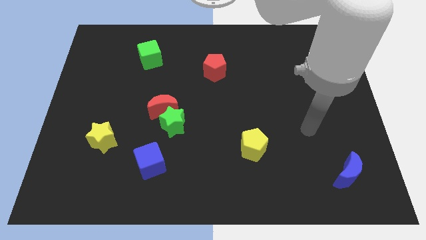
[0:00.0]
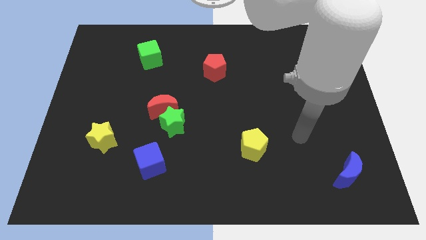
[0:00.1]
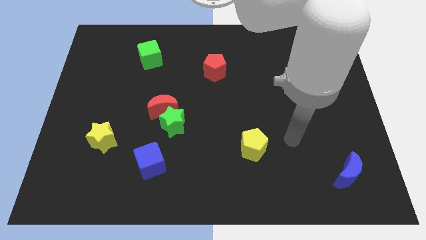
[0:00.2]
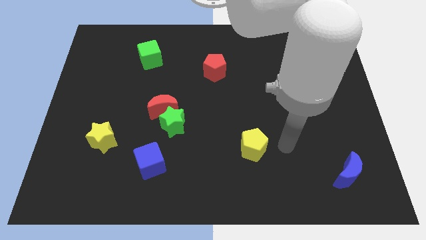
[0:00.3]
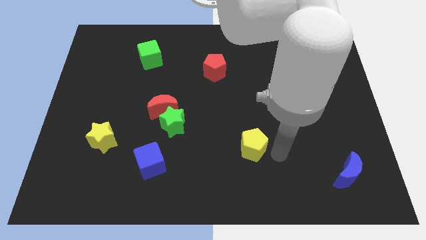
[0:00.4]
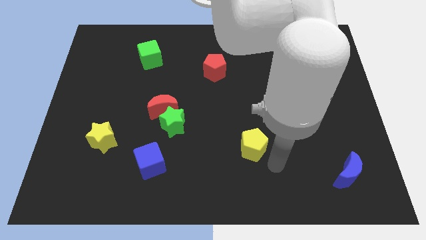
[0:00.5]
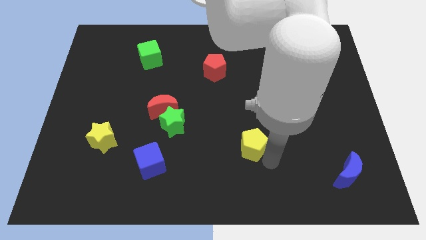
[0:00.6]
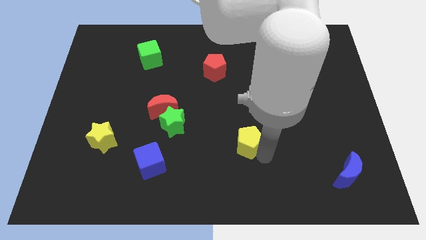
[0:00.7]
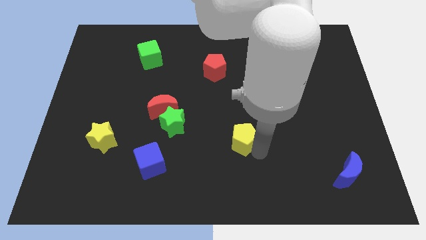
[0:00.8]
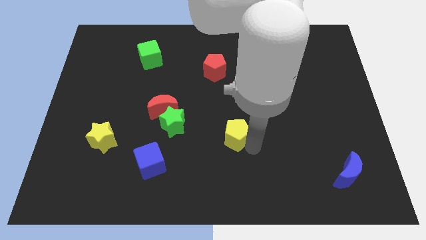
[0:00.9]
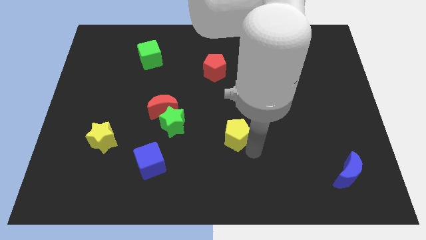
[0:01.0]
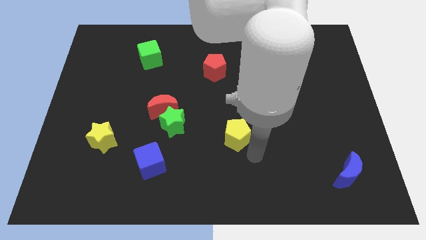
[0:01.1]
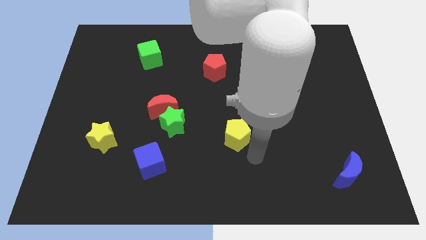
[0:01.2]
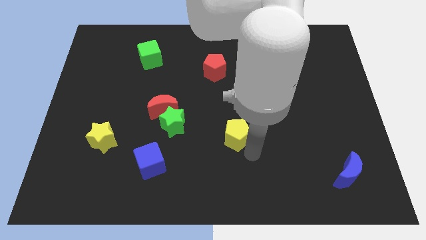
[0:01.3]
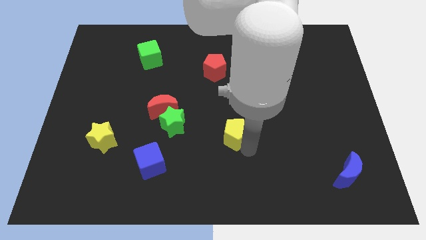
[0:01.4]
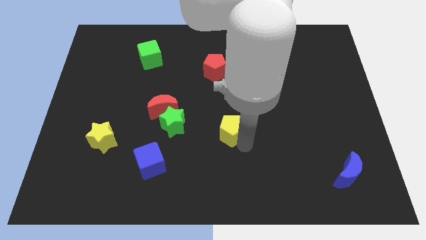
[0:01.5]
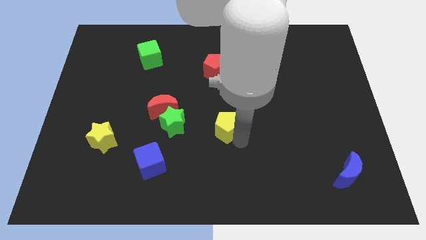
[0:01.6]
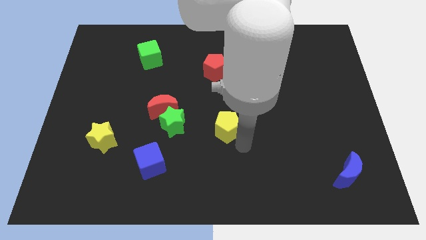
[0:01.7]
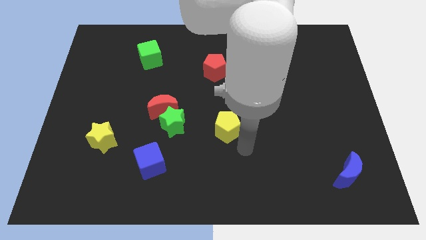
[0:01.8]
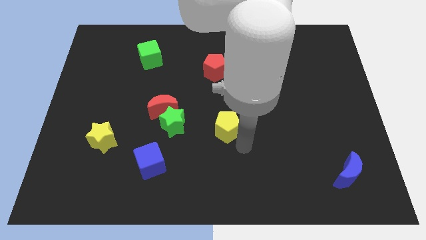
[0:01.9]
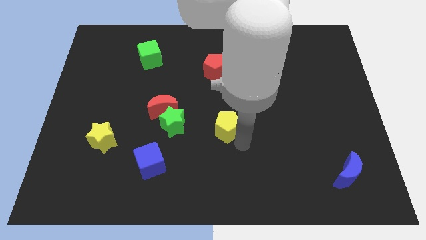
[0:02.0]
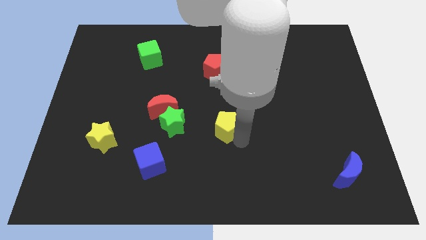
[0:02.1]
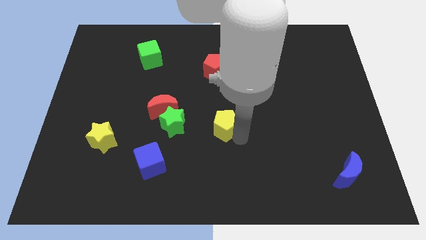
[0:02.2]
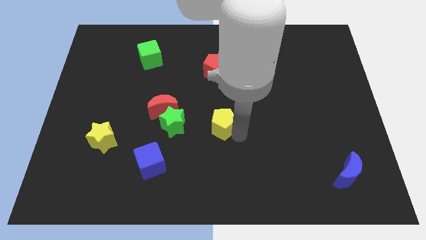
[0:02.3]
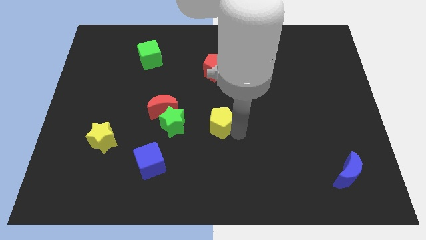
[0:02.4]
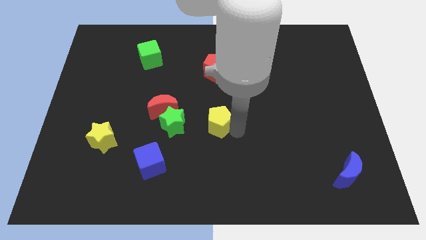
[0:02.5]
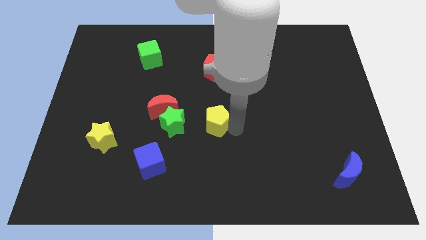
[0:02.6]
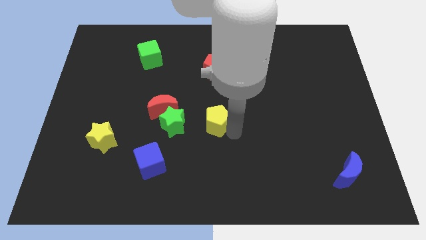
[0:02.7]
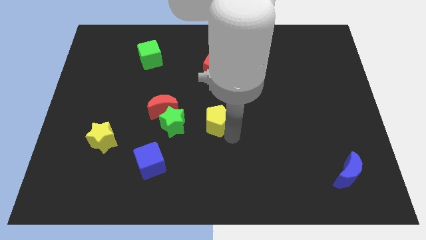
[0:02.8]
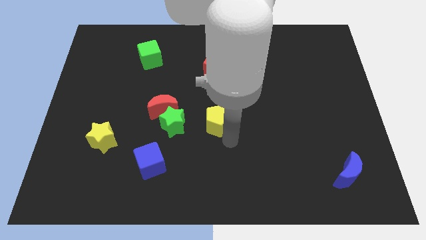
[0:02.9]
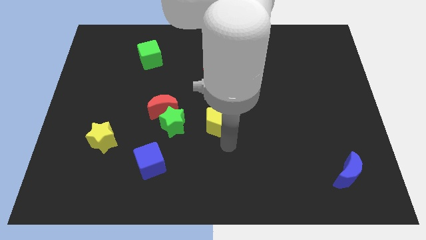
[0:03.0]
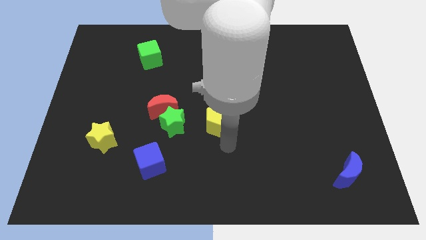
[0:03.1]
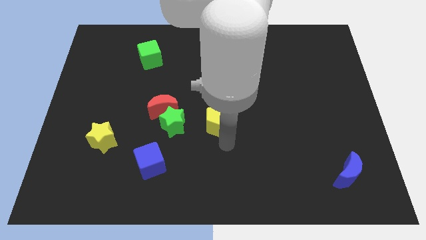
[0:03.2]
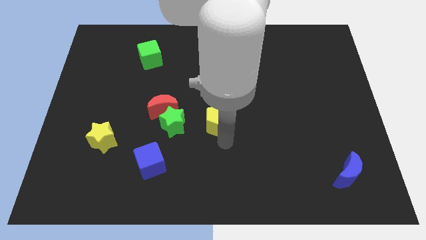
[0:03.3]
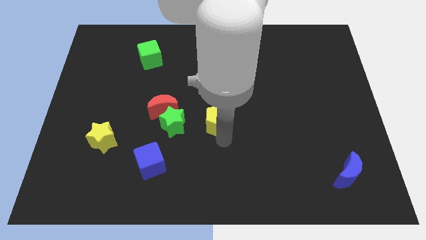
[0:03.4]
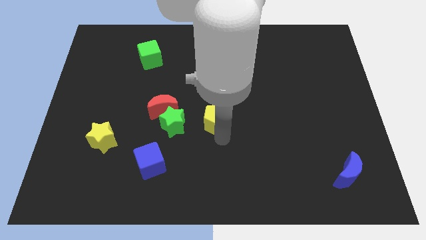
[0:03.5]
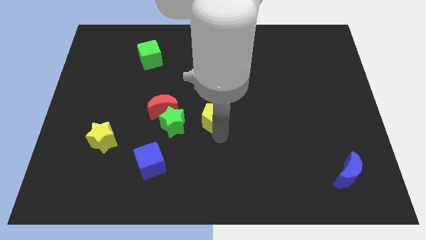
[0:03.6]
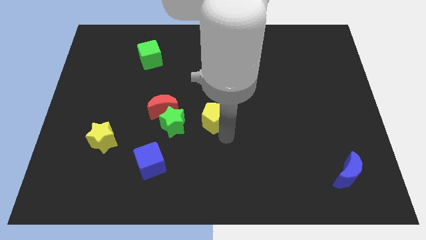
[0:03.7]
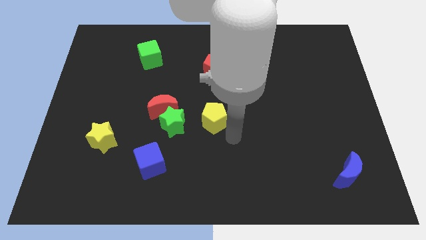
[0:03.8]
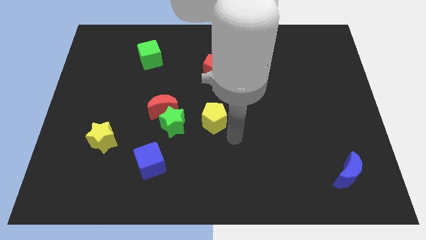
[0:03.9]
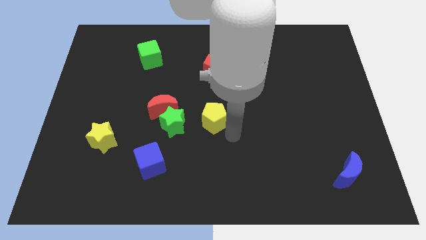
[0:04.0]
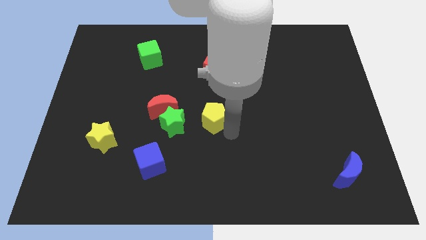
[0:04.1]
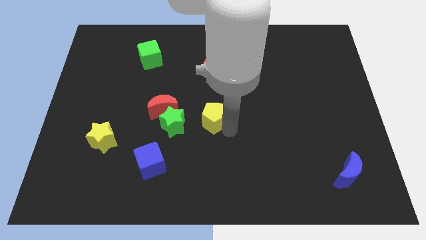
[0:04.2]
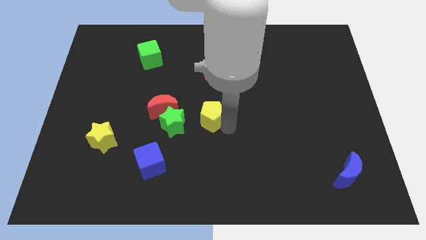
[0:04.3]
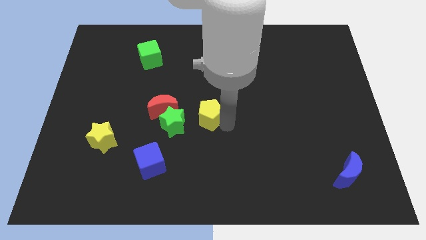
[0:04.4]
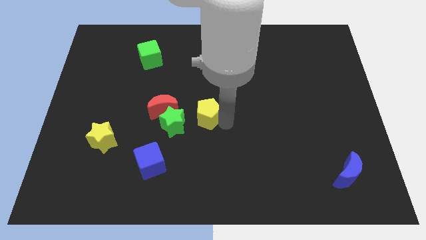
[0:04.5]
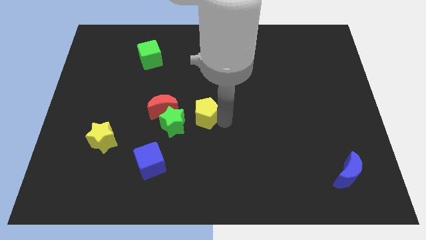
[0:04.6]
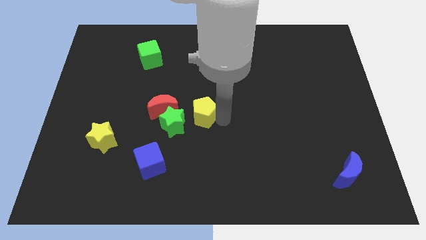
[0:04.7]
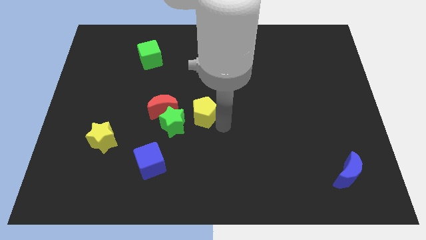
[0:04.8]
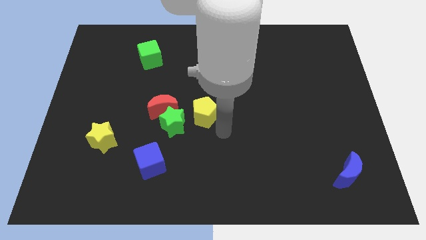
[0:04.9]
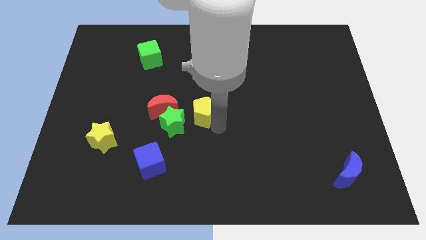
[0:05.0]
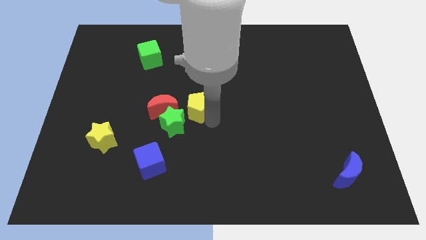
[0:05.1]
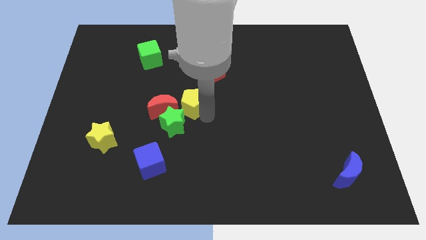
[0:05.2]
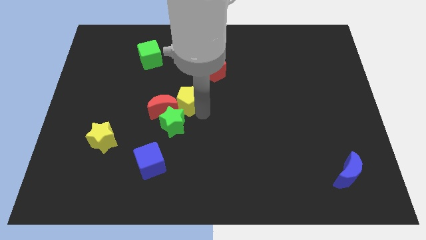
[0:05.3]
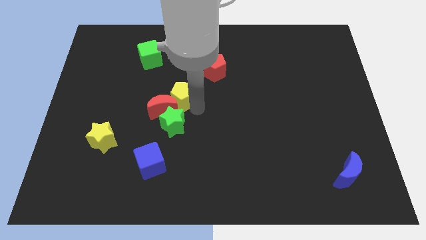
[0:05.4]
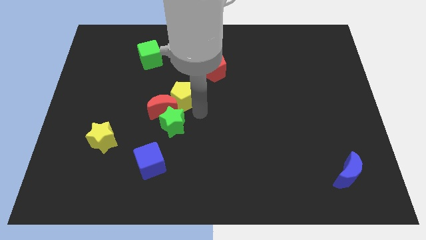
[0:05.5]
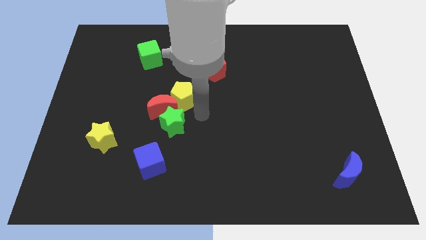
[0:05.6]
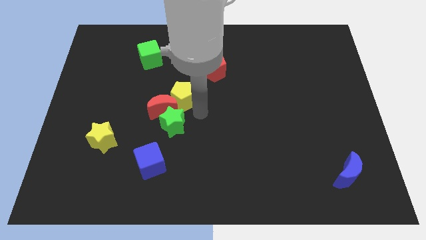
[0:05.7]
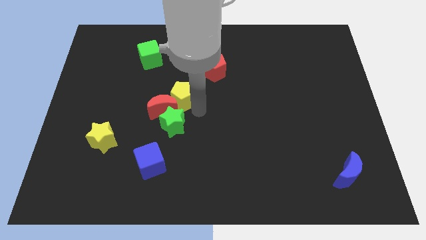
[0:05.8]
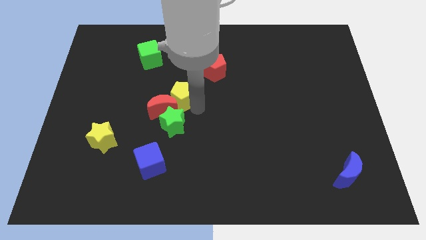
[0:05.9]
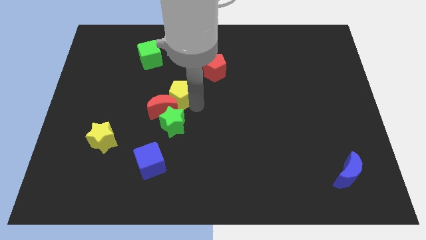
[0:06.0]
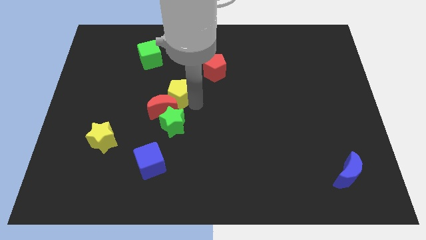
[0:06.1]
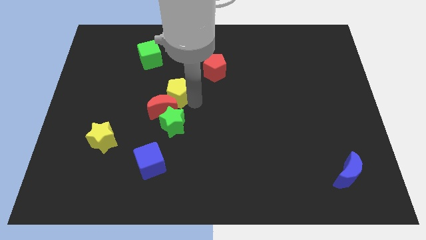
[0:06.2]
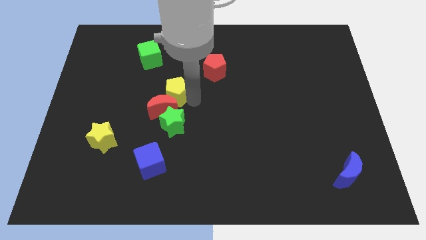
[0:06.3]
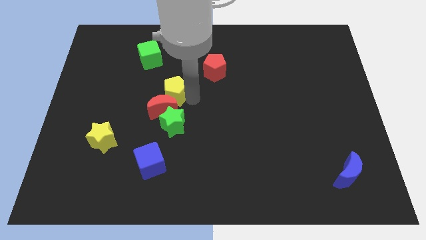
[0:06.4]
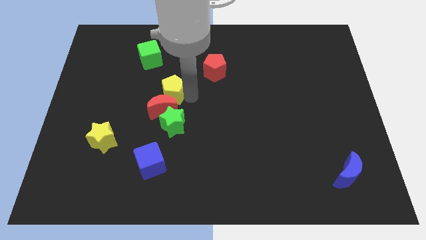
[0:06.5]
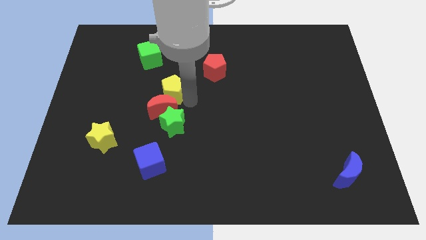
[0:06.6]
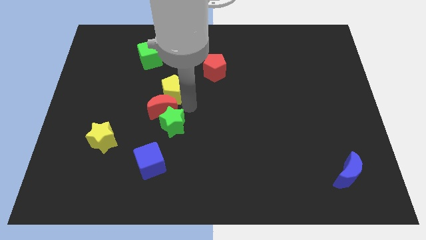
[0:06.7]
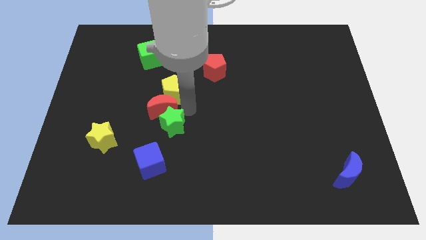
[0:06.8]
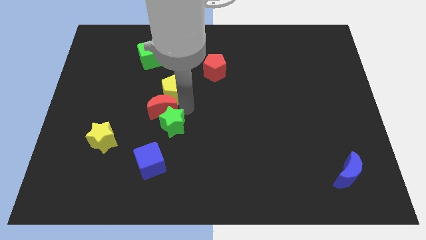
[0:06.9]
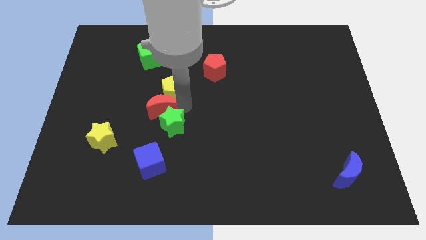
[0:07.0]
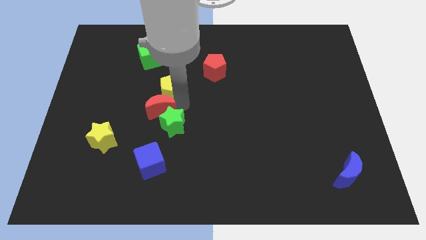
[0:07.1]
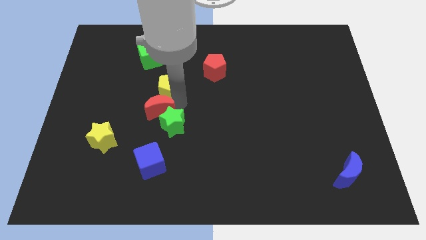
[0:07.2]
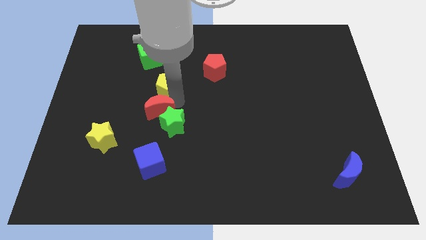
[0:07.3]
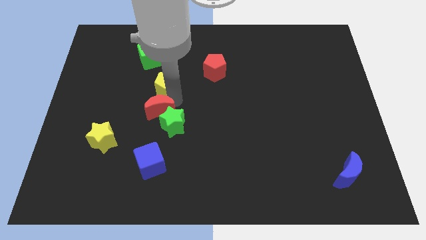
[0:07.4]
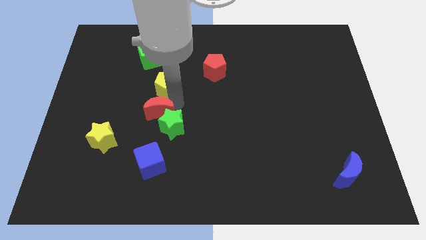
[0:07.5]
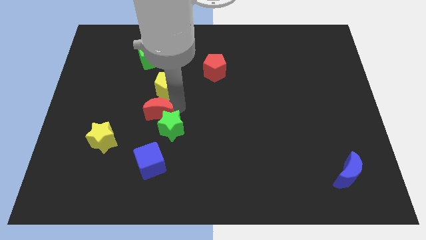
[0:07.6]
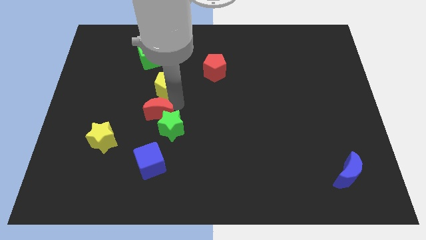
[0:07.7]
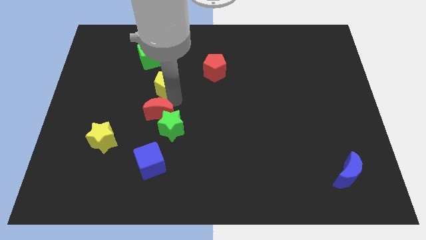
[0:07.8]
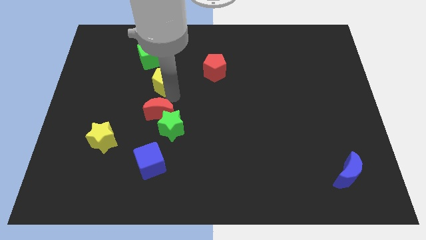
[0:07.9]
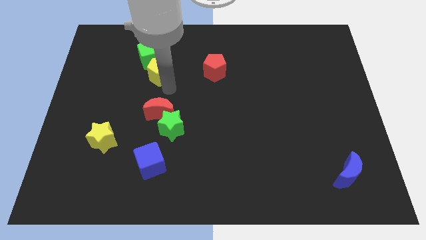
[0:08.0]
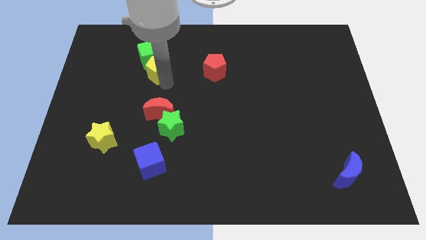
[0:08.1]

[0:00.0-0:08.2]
push the yellow pentagon close to the green cube
